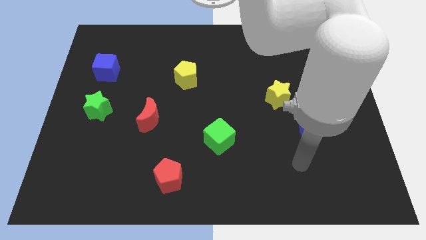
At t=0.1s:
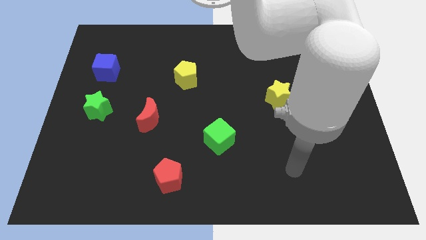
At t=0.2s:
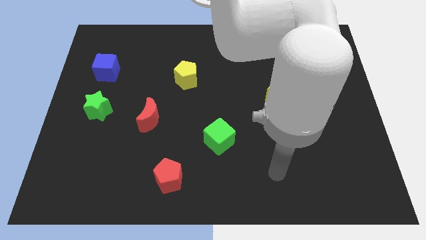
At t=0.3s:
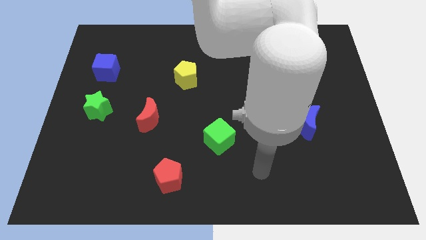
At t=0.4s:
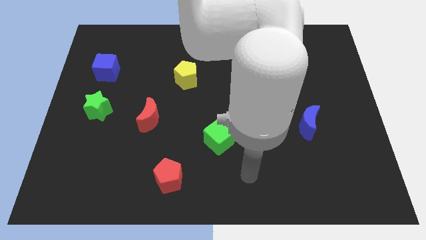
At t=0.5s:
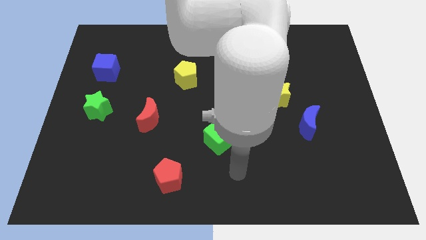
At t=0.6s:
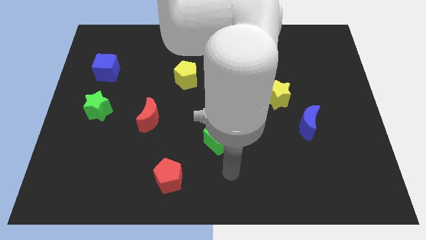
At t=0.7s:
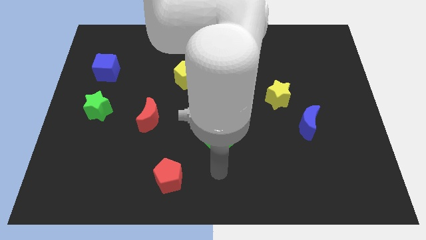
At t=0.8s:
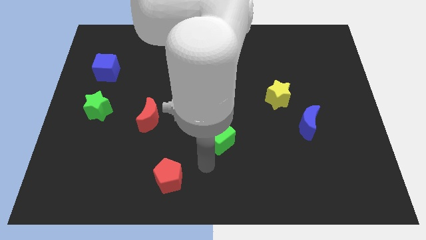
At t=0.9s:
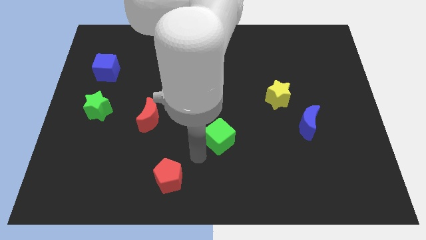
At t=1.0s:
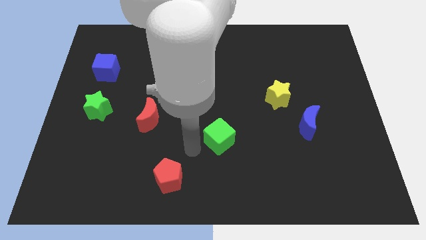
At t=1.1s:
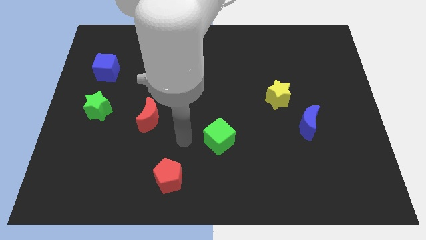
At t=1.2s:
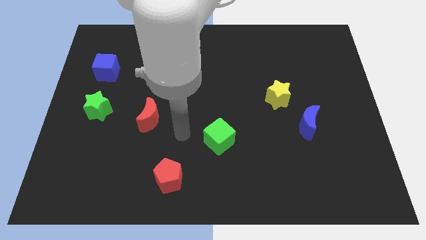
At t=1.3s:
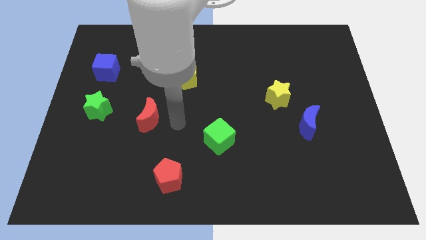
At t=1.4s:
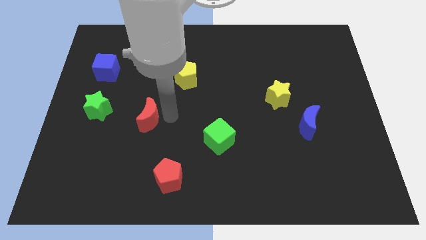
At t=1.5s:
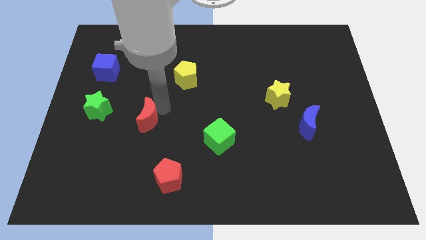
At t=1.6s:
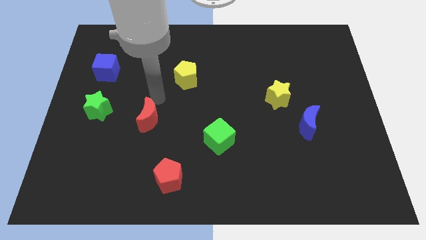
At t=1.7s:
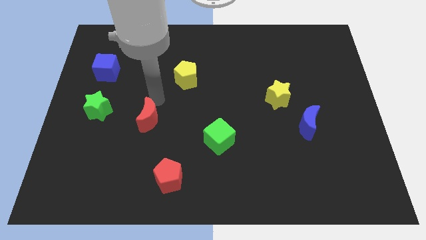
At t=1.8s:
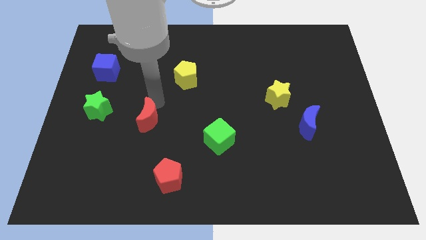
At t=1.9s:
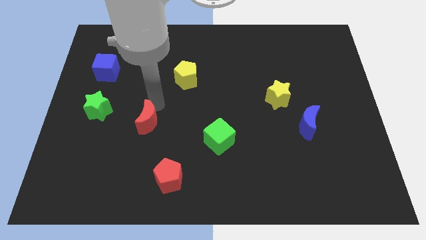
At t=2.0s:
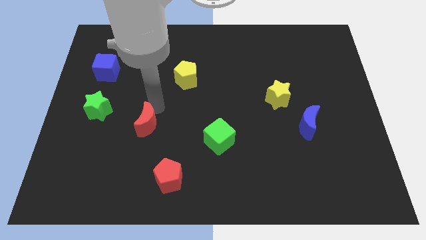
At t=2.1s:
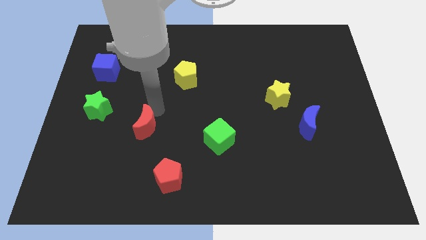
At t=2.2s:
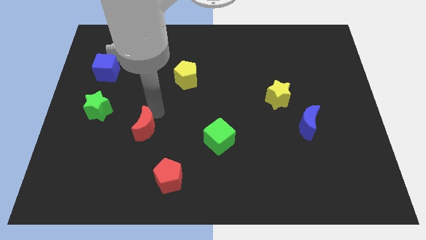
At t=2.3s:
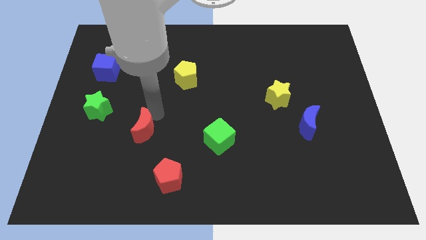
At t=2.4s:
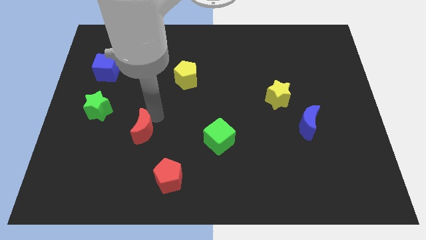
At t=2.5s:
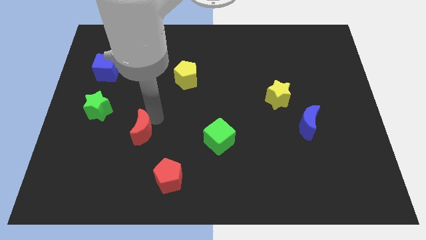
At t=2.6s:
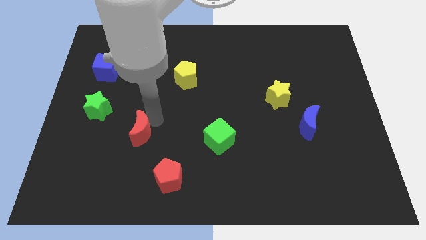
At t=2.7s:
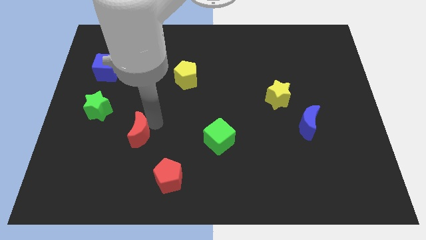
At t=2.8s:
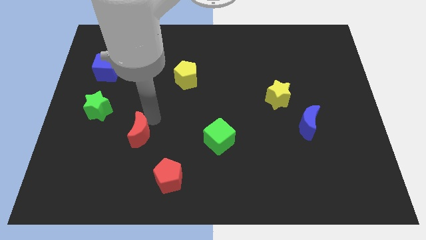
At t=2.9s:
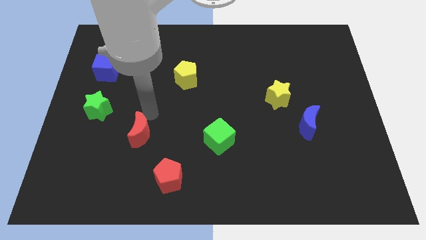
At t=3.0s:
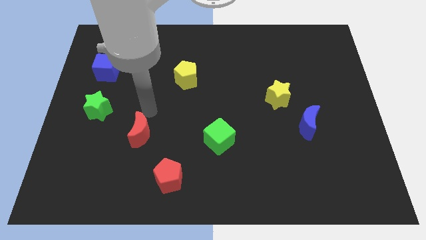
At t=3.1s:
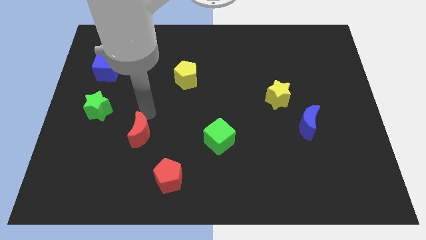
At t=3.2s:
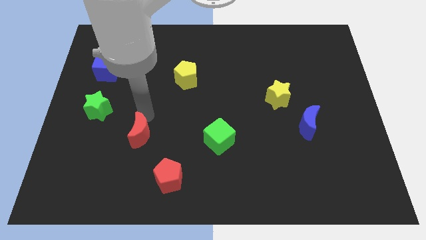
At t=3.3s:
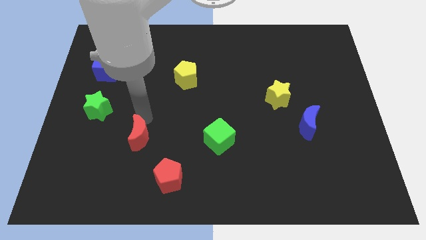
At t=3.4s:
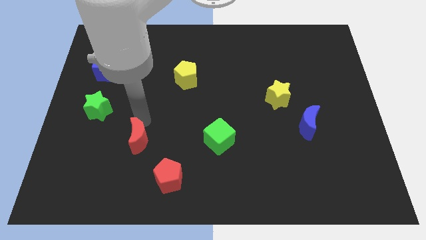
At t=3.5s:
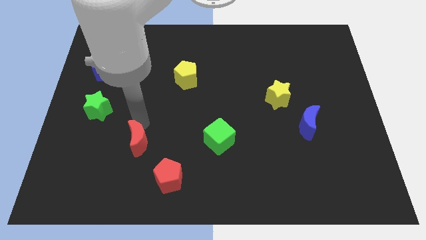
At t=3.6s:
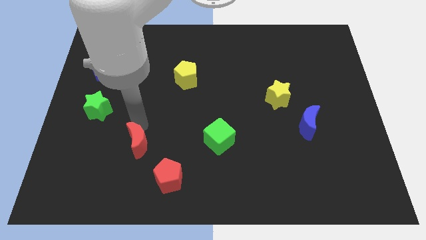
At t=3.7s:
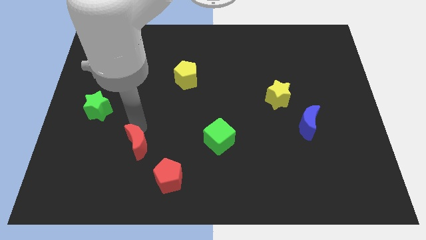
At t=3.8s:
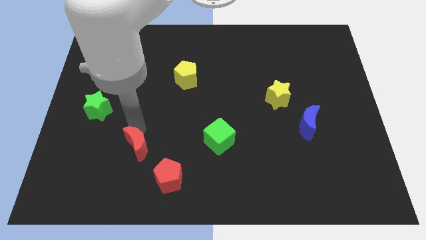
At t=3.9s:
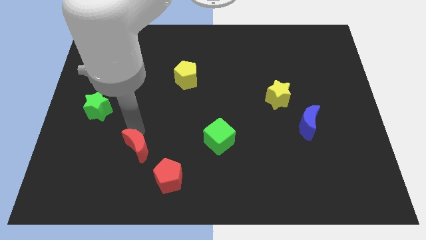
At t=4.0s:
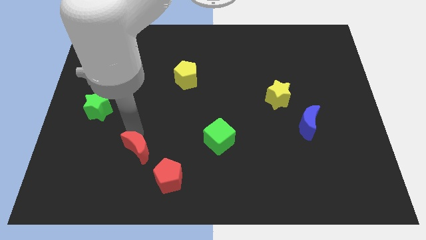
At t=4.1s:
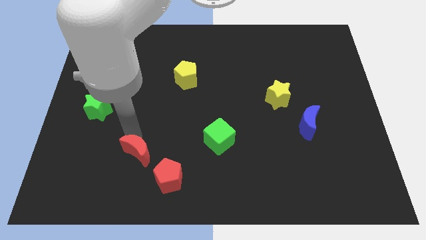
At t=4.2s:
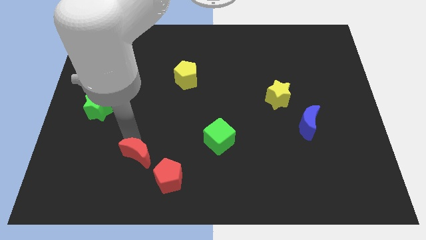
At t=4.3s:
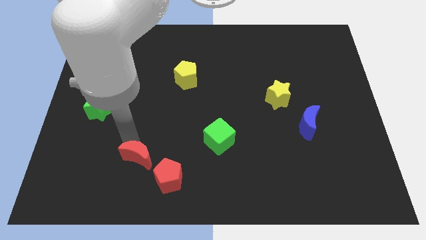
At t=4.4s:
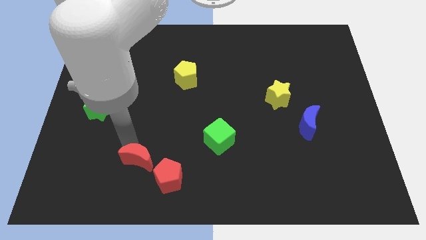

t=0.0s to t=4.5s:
put the red moon left of the red pentagon

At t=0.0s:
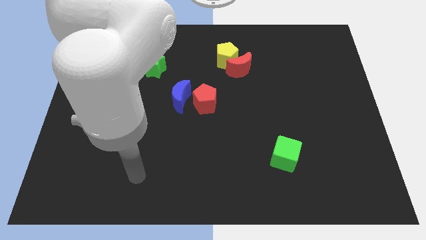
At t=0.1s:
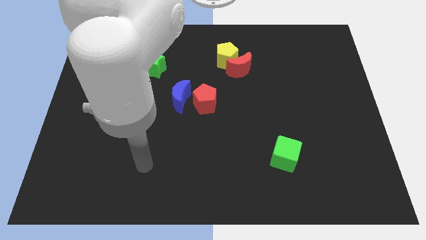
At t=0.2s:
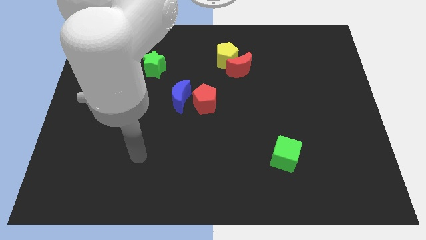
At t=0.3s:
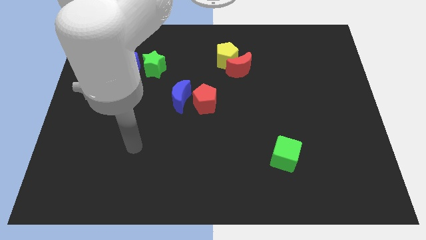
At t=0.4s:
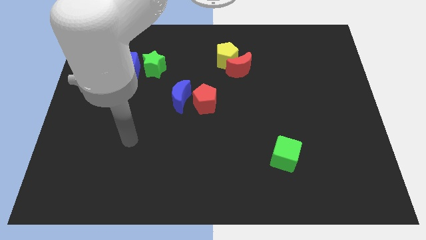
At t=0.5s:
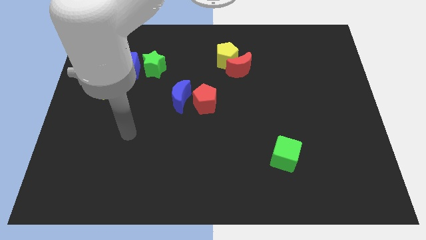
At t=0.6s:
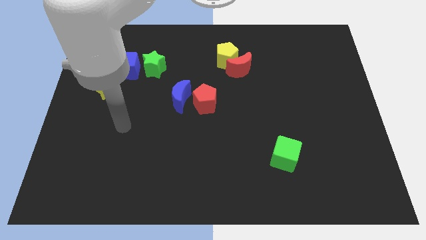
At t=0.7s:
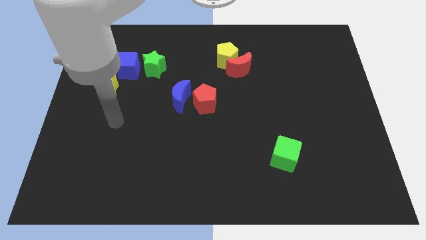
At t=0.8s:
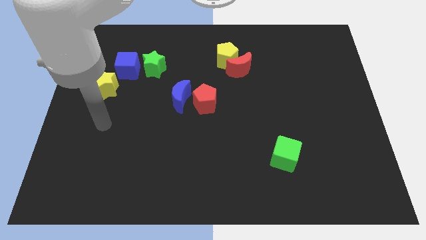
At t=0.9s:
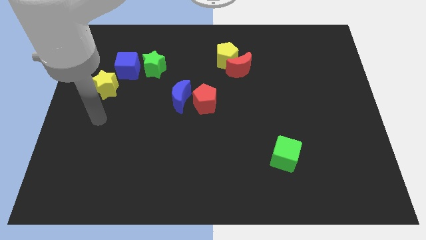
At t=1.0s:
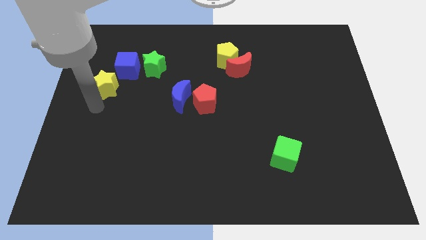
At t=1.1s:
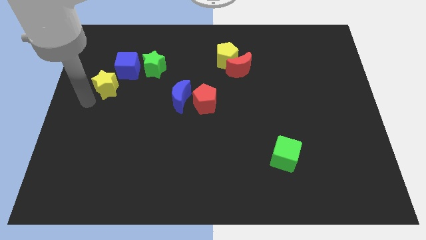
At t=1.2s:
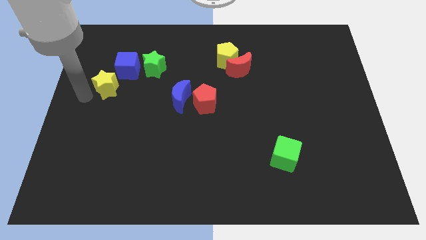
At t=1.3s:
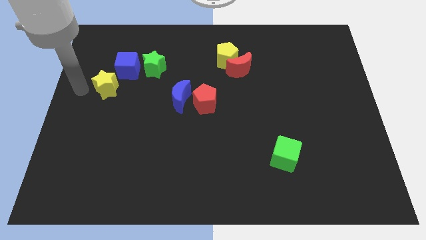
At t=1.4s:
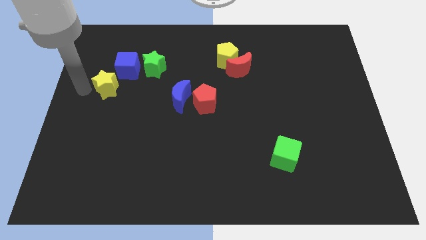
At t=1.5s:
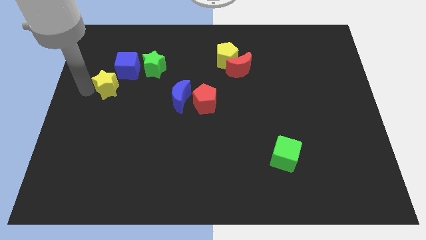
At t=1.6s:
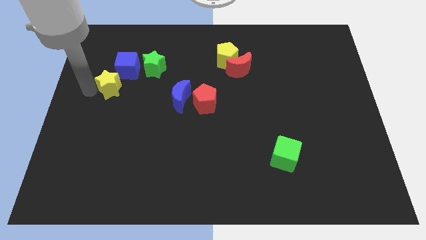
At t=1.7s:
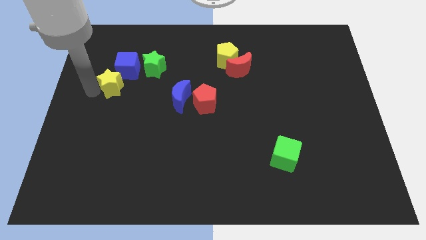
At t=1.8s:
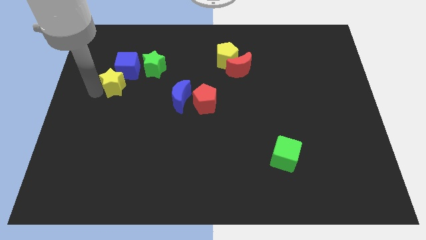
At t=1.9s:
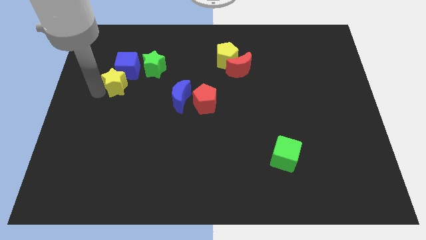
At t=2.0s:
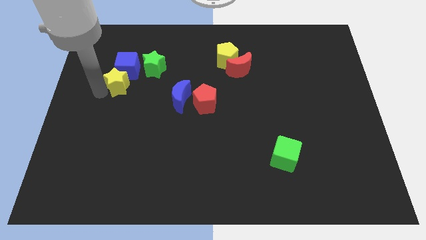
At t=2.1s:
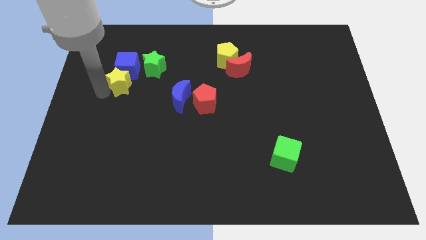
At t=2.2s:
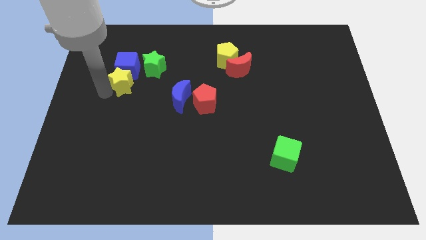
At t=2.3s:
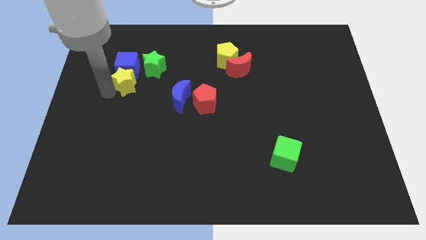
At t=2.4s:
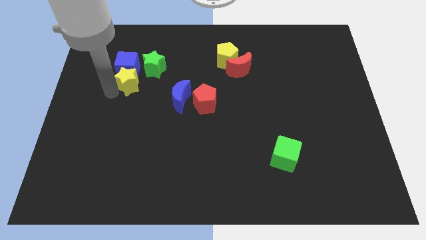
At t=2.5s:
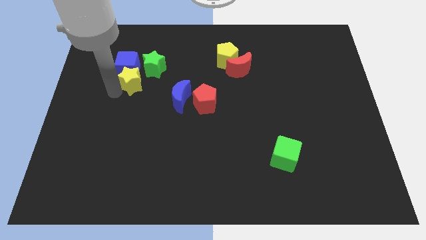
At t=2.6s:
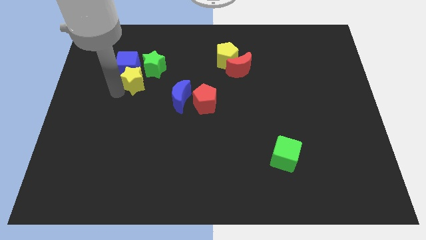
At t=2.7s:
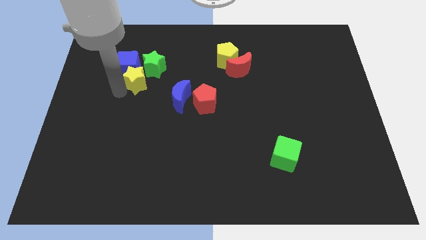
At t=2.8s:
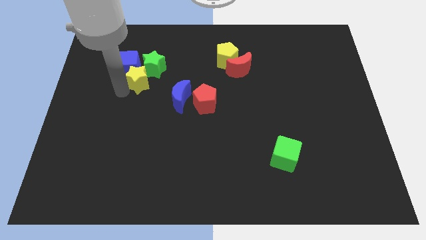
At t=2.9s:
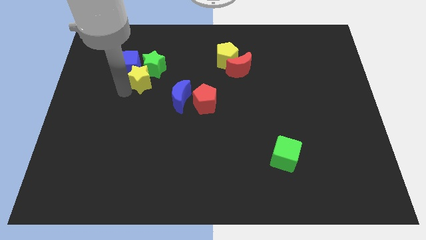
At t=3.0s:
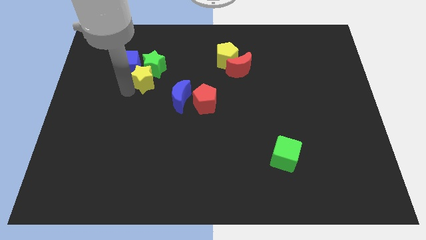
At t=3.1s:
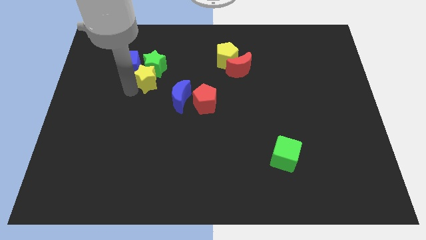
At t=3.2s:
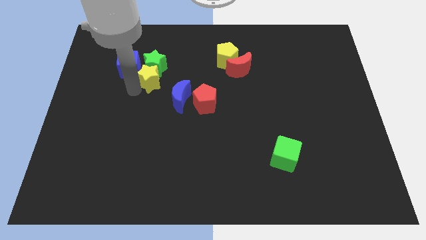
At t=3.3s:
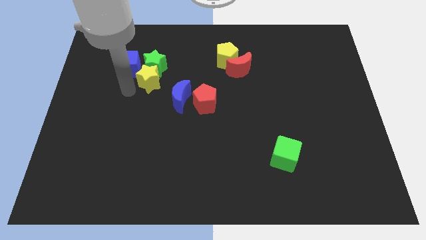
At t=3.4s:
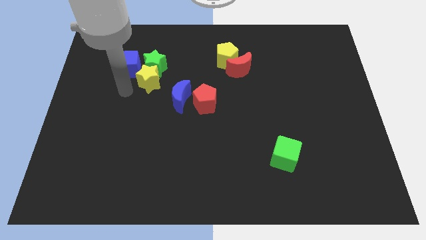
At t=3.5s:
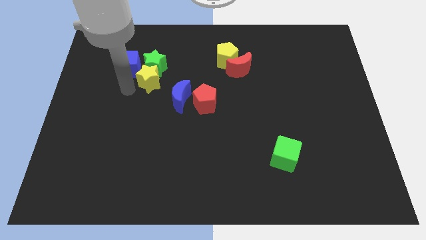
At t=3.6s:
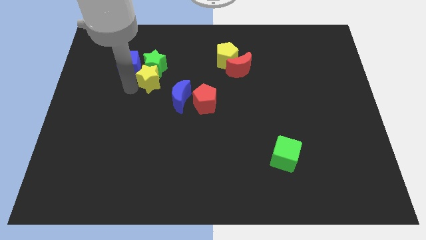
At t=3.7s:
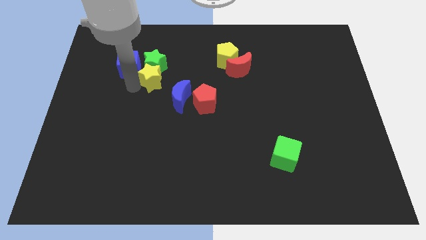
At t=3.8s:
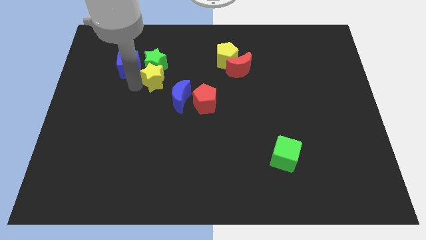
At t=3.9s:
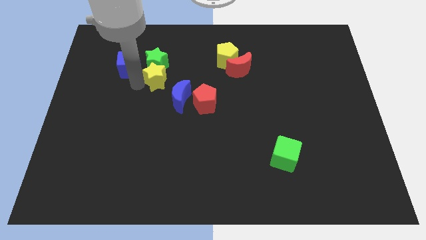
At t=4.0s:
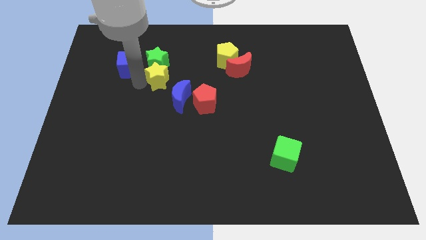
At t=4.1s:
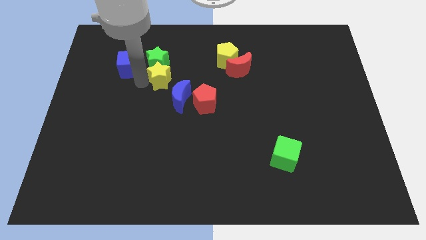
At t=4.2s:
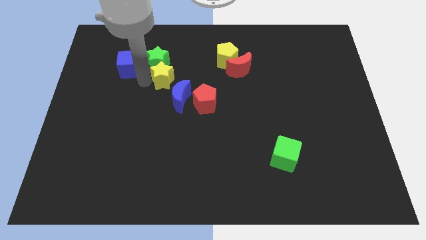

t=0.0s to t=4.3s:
move the yellow star to the top left side of the red pentagon
